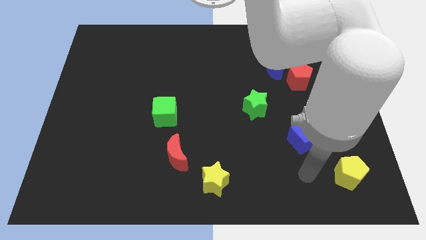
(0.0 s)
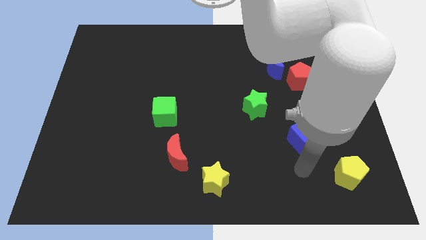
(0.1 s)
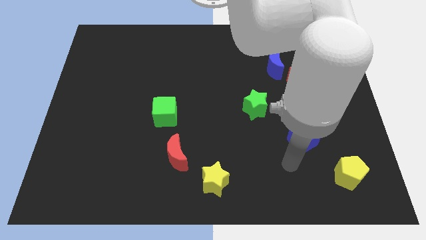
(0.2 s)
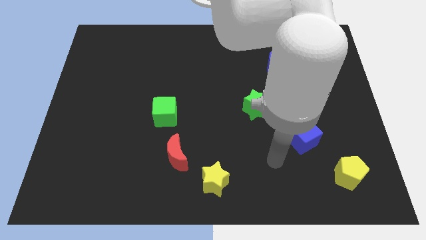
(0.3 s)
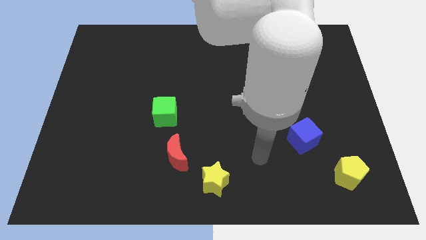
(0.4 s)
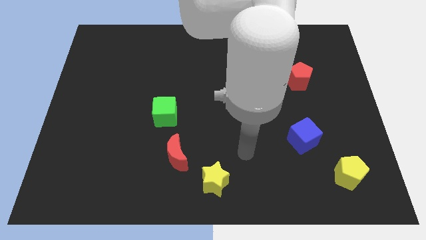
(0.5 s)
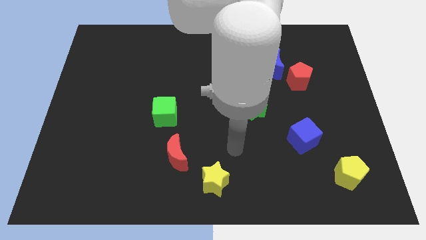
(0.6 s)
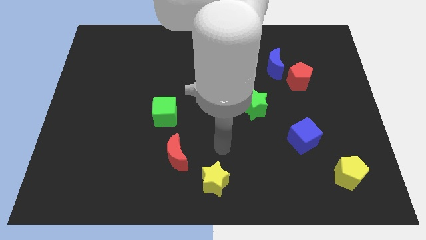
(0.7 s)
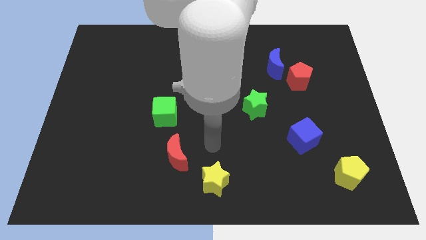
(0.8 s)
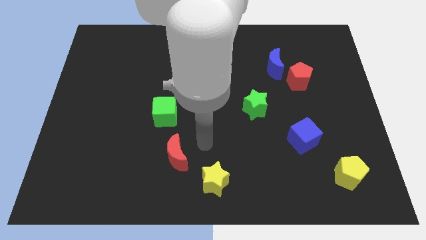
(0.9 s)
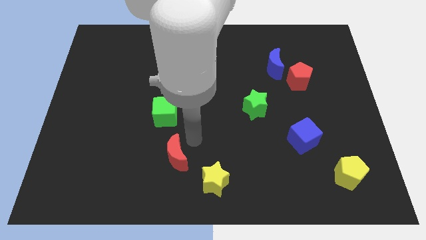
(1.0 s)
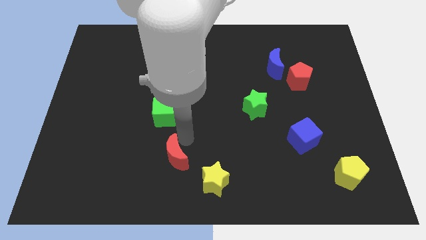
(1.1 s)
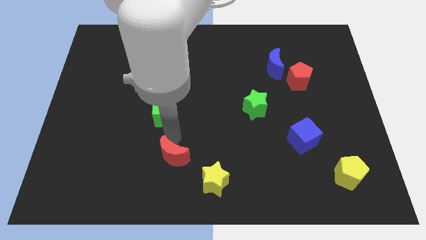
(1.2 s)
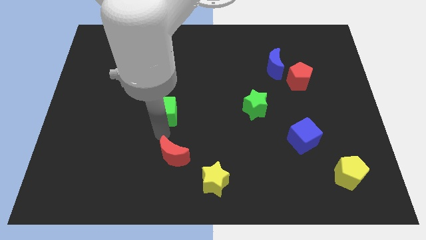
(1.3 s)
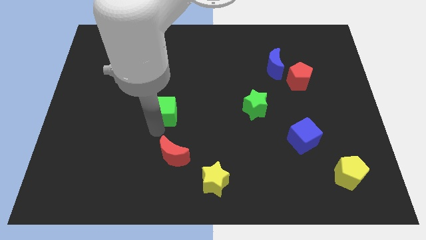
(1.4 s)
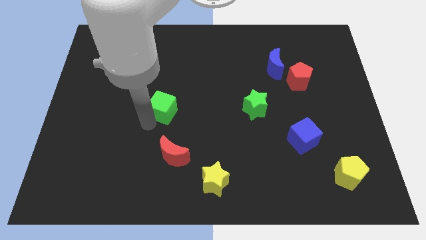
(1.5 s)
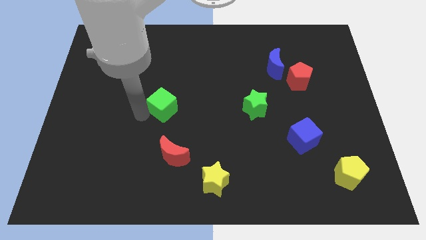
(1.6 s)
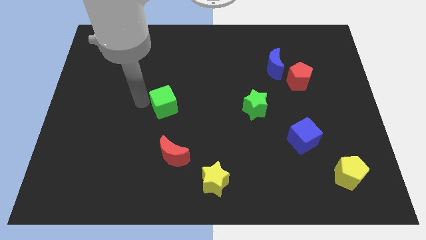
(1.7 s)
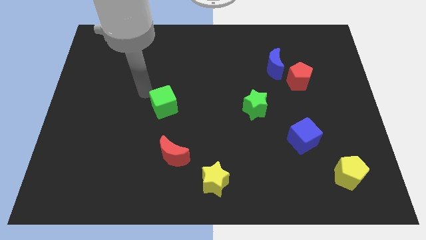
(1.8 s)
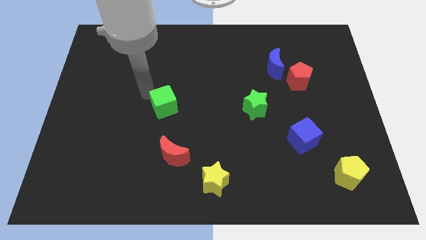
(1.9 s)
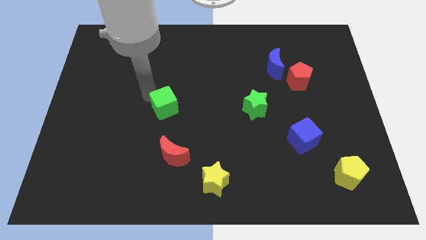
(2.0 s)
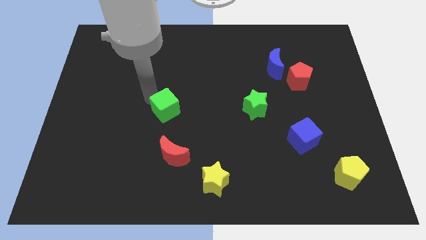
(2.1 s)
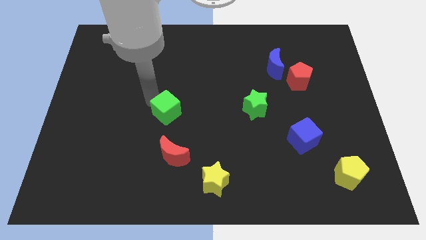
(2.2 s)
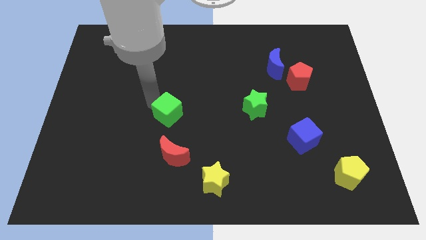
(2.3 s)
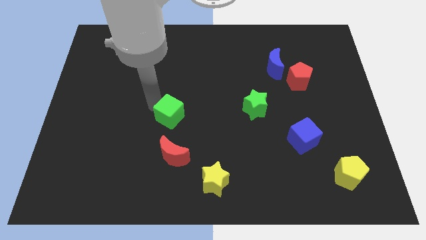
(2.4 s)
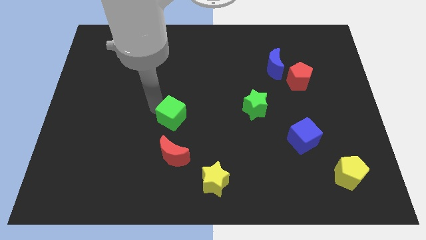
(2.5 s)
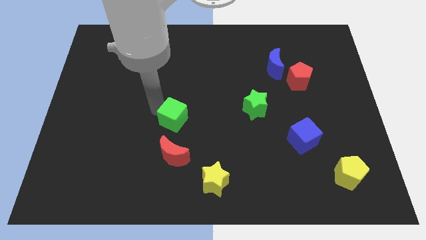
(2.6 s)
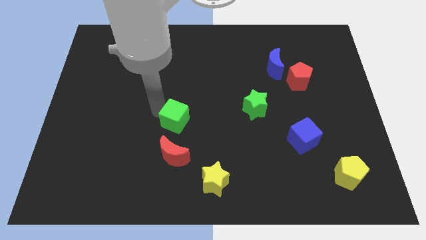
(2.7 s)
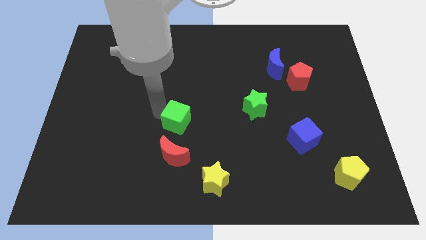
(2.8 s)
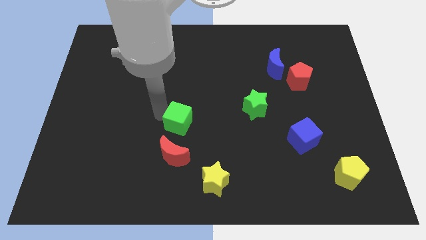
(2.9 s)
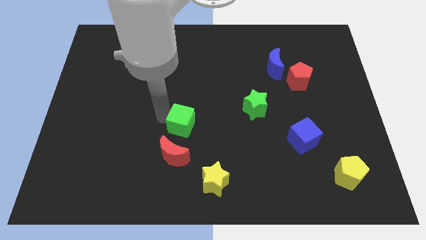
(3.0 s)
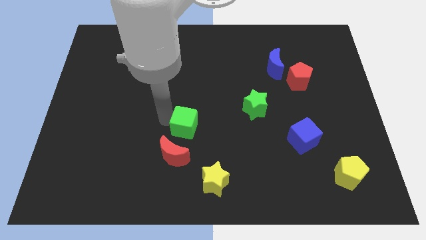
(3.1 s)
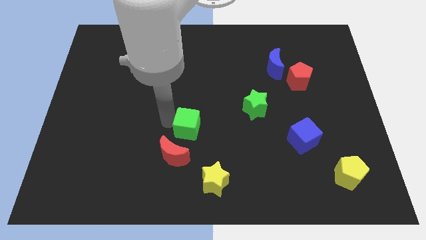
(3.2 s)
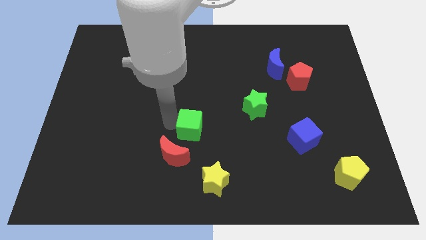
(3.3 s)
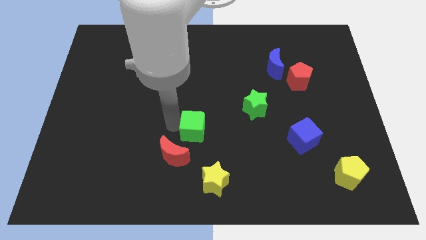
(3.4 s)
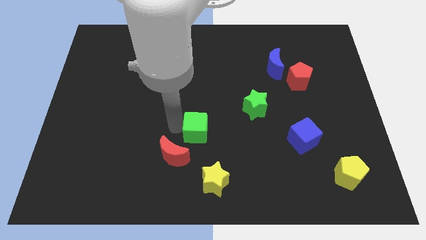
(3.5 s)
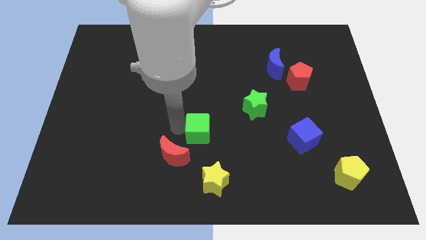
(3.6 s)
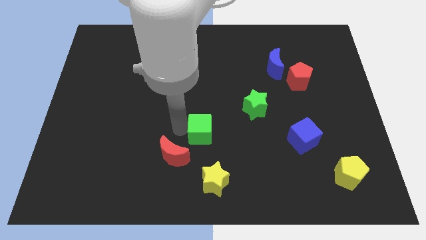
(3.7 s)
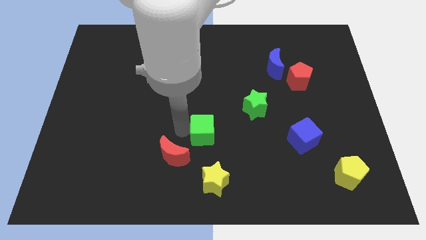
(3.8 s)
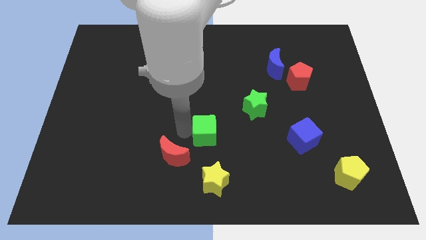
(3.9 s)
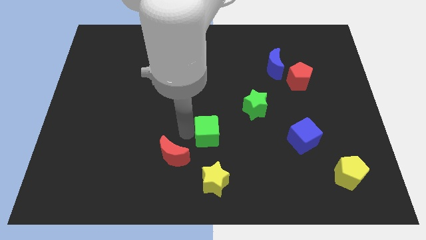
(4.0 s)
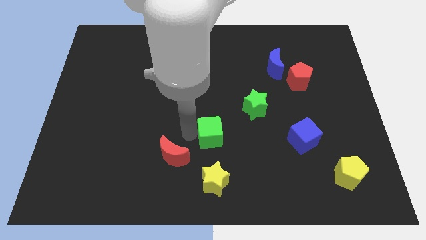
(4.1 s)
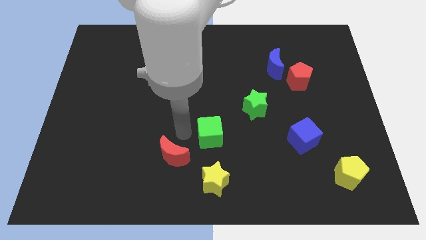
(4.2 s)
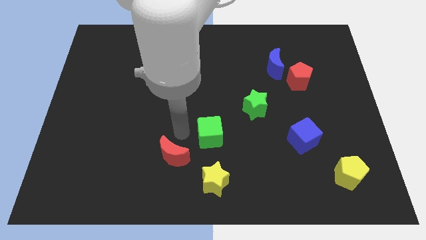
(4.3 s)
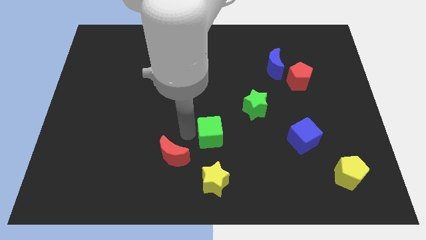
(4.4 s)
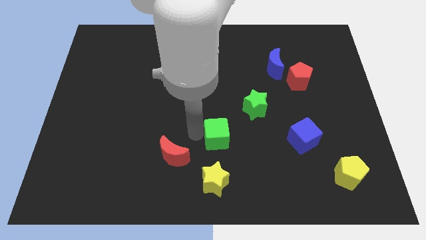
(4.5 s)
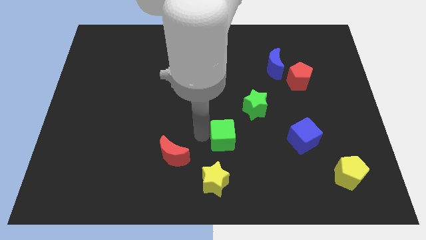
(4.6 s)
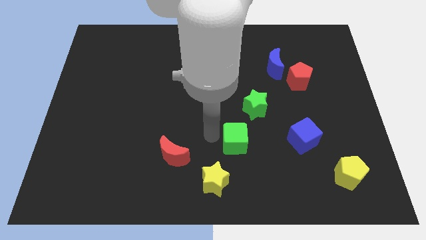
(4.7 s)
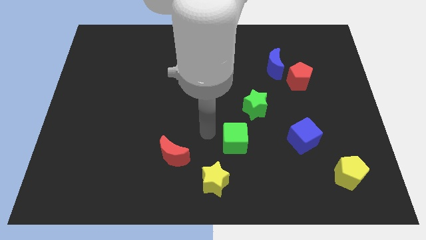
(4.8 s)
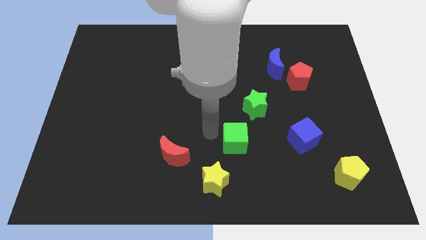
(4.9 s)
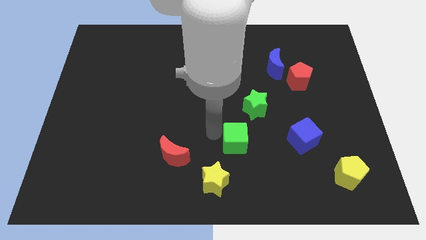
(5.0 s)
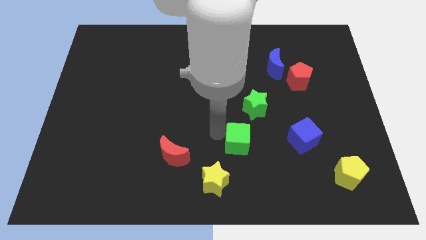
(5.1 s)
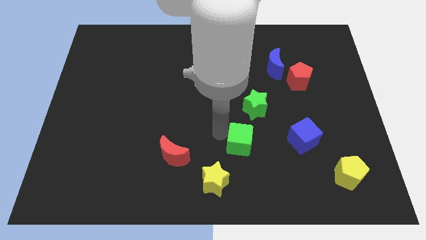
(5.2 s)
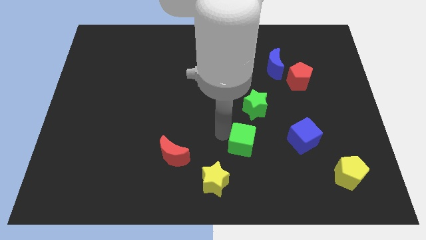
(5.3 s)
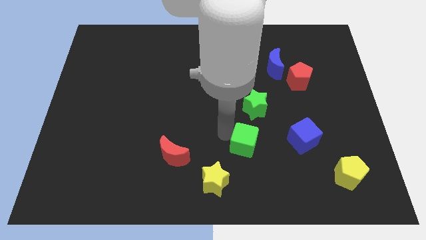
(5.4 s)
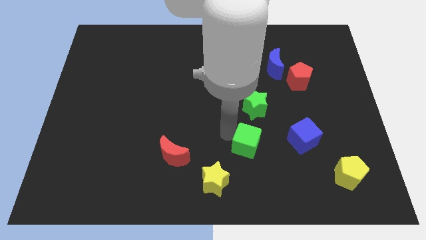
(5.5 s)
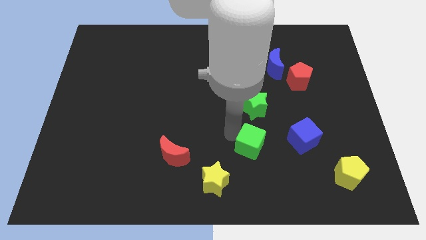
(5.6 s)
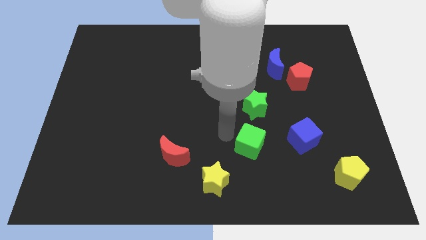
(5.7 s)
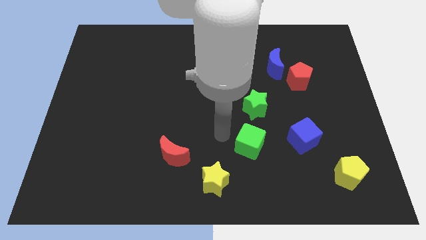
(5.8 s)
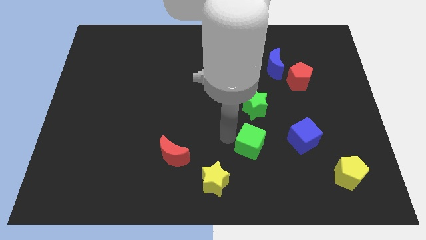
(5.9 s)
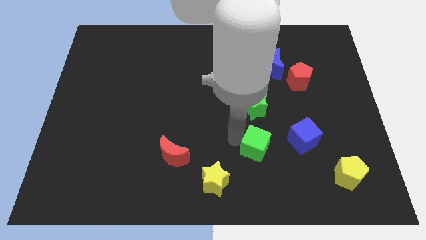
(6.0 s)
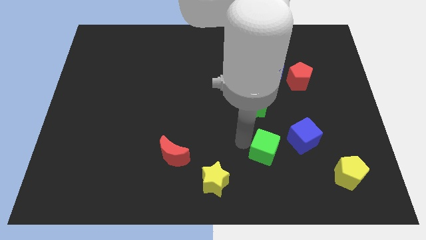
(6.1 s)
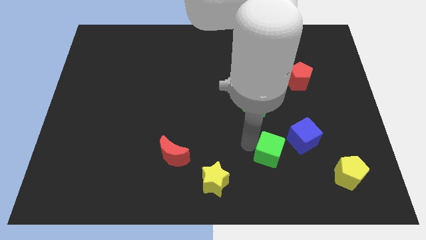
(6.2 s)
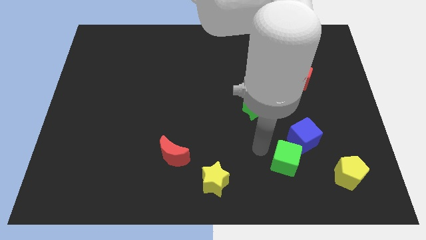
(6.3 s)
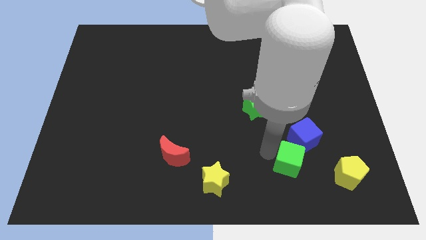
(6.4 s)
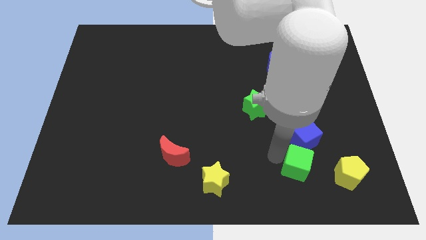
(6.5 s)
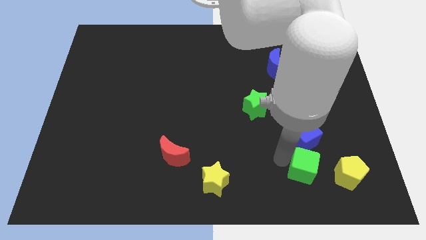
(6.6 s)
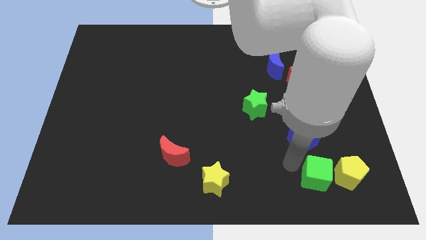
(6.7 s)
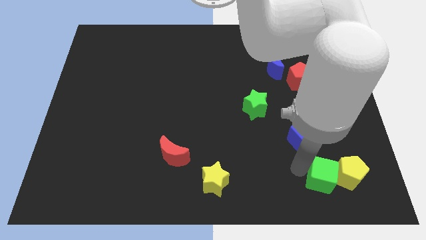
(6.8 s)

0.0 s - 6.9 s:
put the green cube next to the yellow pentagon

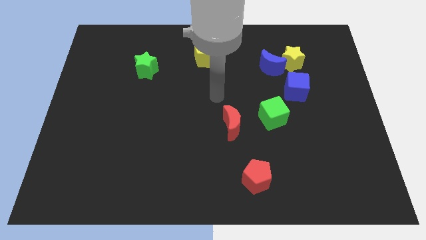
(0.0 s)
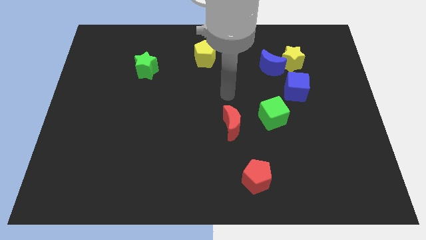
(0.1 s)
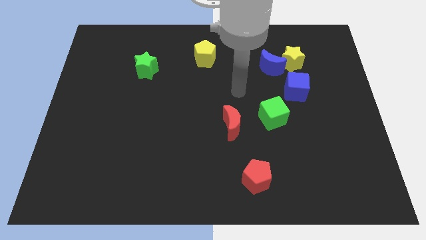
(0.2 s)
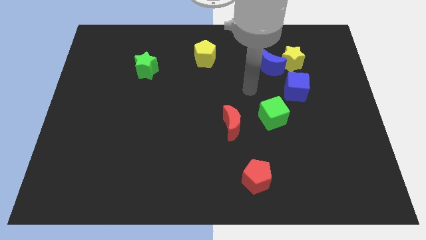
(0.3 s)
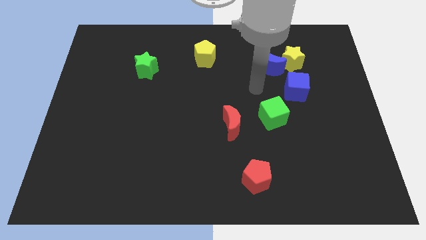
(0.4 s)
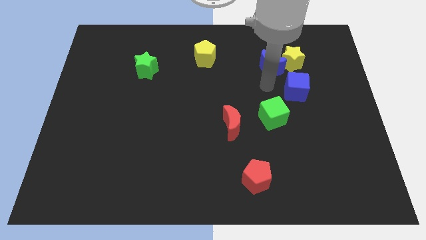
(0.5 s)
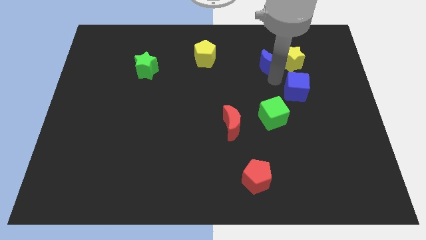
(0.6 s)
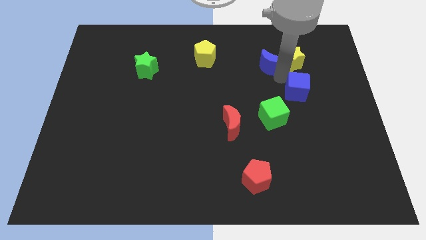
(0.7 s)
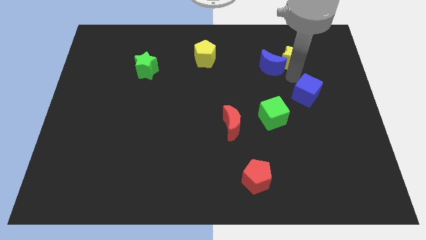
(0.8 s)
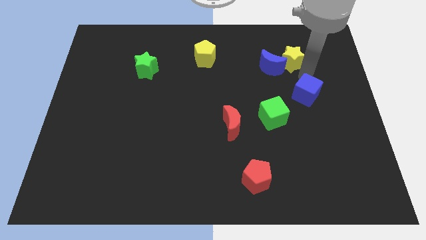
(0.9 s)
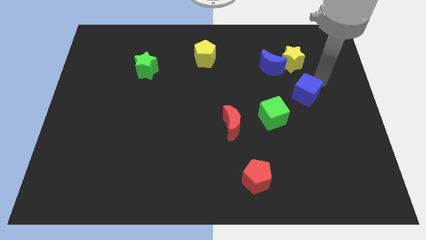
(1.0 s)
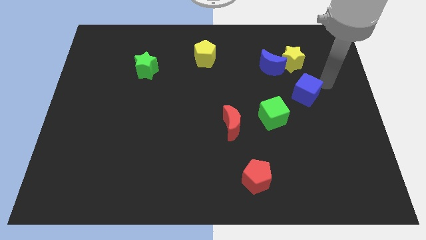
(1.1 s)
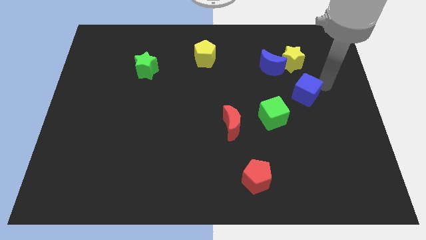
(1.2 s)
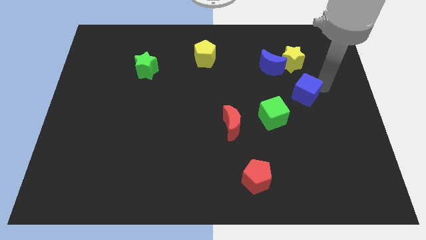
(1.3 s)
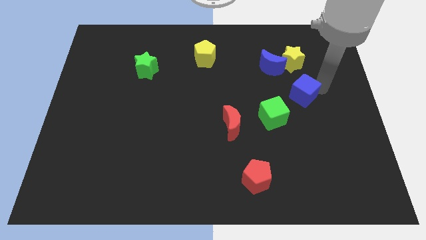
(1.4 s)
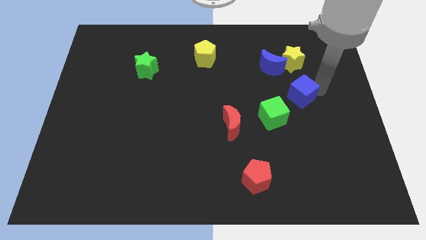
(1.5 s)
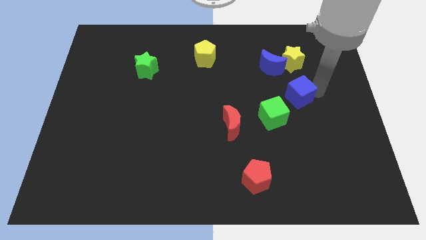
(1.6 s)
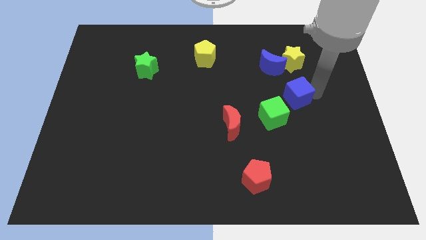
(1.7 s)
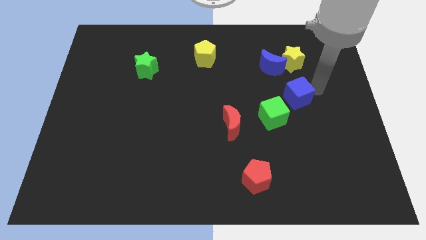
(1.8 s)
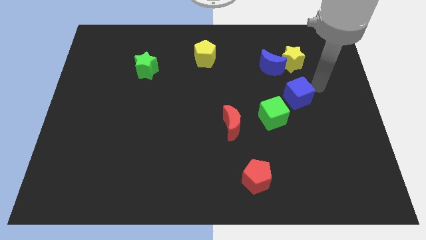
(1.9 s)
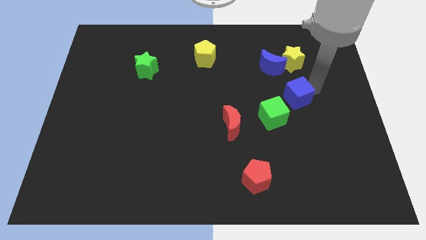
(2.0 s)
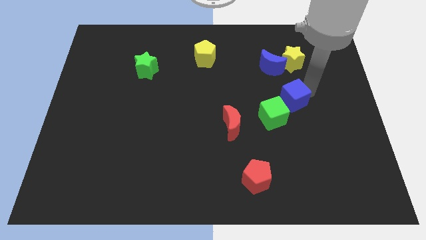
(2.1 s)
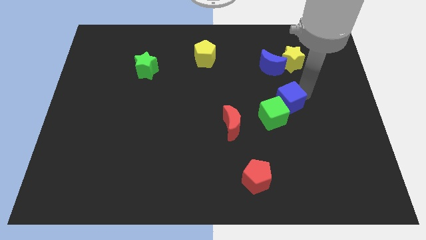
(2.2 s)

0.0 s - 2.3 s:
move the blue cube towards the green cube
